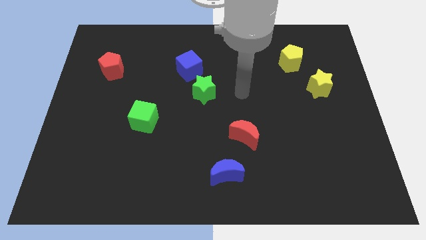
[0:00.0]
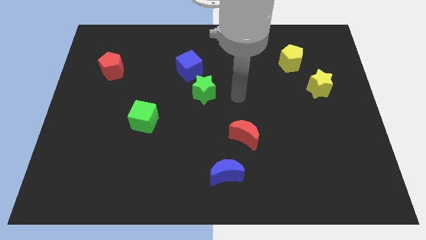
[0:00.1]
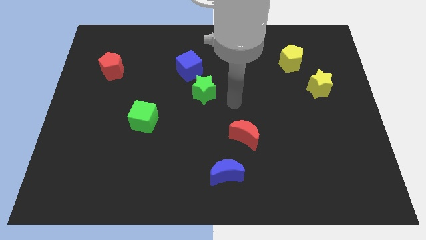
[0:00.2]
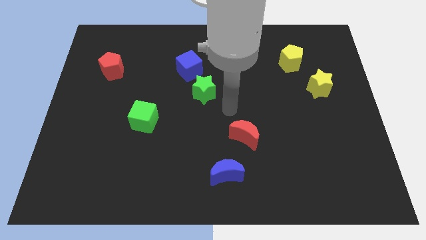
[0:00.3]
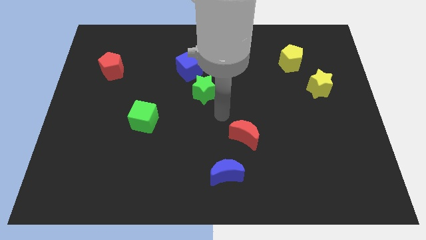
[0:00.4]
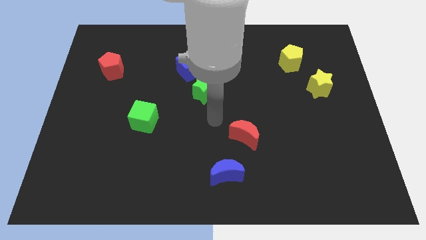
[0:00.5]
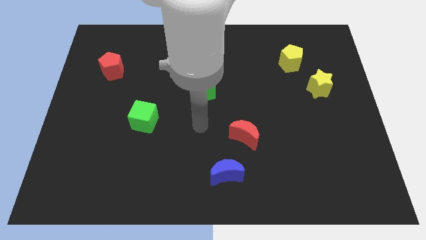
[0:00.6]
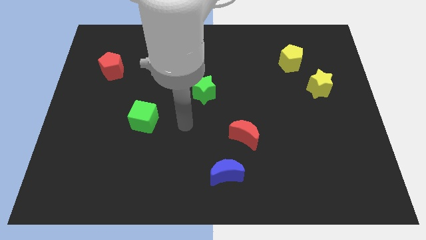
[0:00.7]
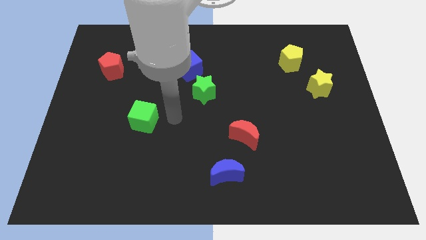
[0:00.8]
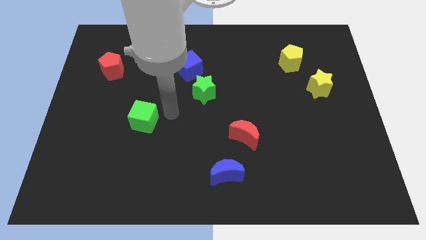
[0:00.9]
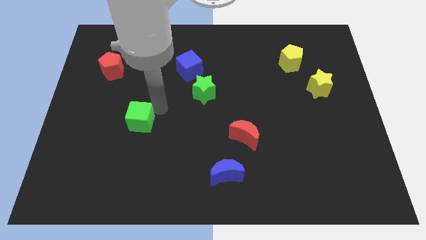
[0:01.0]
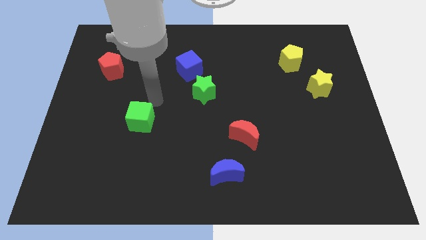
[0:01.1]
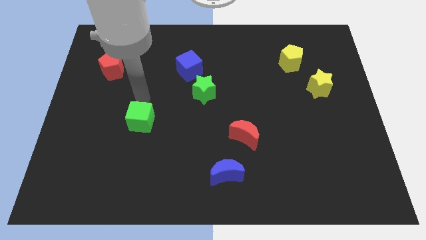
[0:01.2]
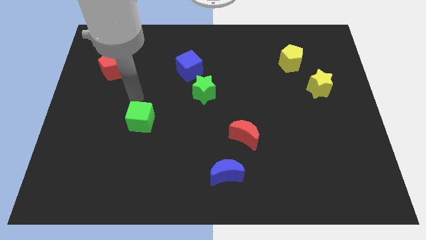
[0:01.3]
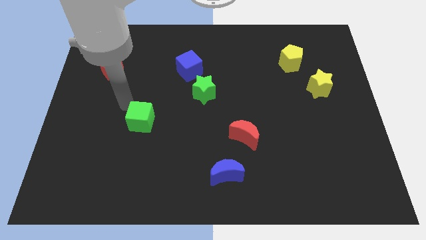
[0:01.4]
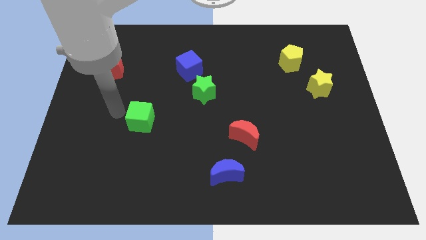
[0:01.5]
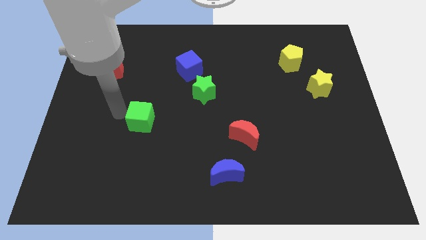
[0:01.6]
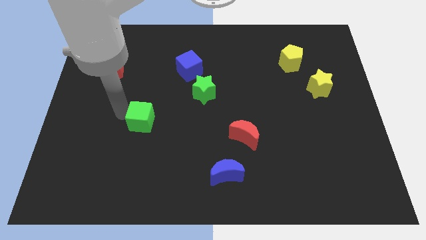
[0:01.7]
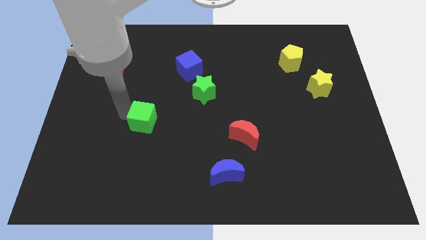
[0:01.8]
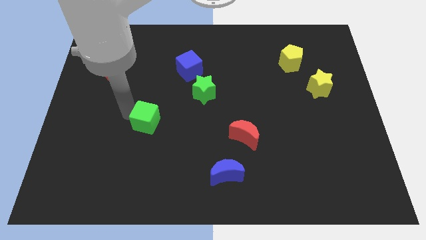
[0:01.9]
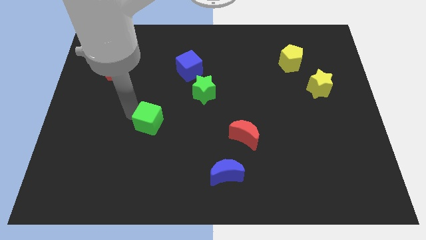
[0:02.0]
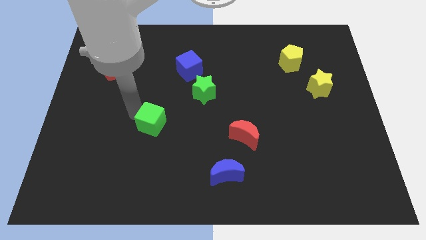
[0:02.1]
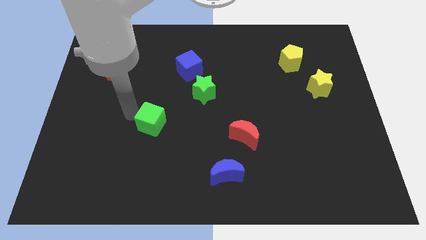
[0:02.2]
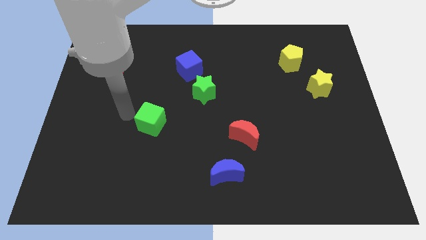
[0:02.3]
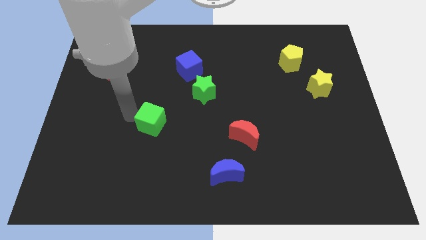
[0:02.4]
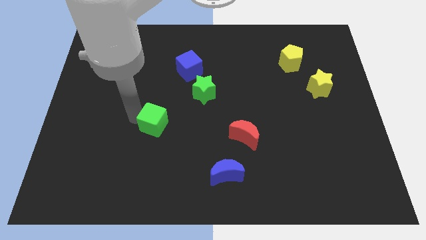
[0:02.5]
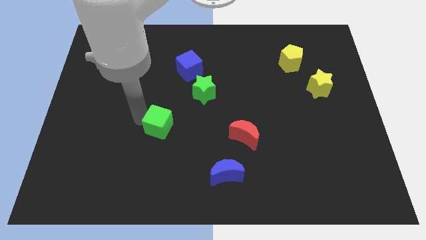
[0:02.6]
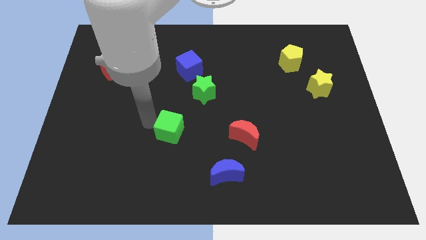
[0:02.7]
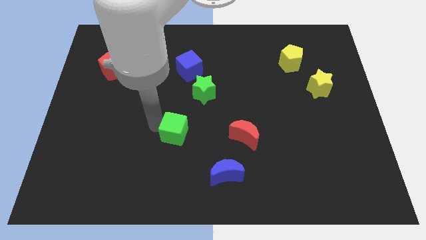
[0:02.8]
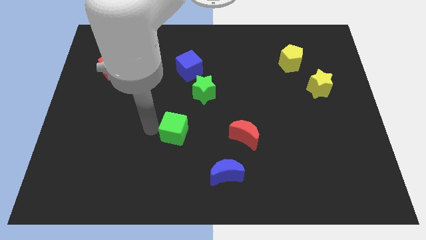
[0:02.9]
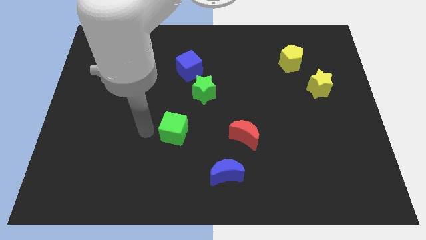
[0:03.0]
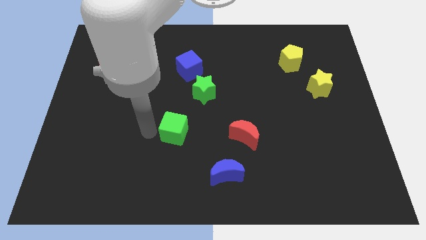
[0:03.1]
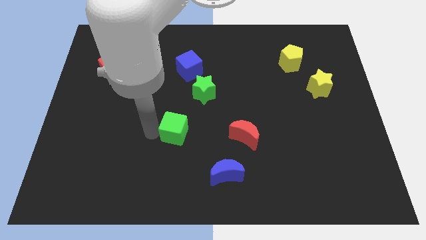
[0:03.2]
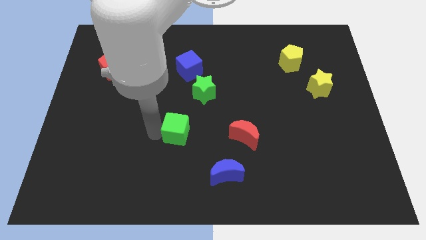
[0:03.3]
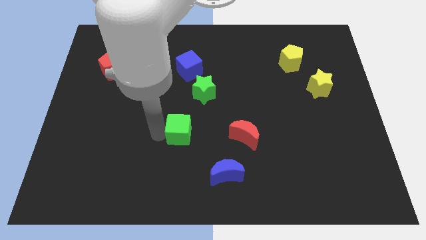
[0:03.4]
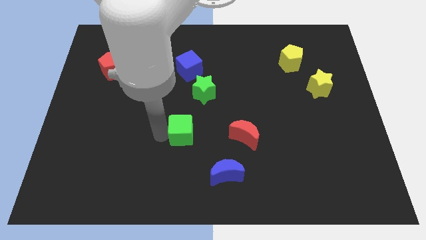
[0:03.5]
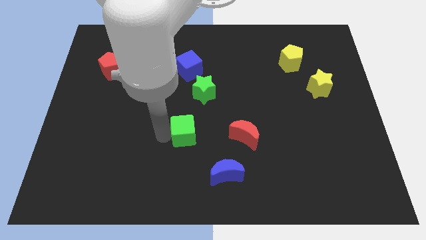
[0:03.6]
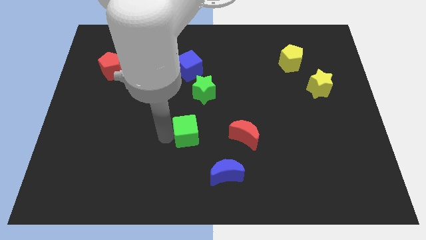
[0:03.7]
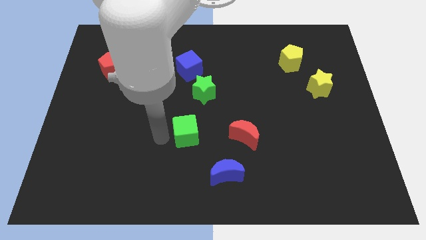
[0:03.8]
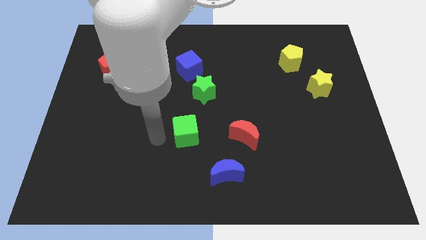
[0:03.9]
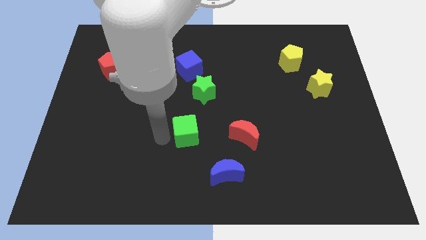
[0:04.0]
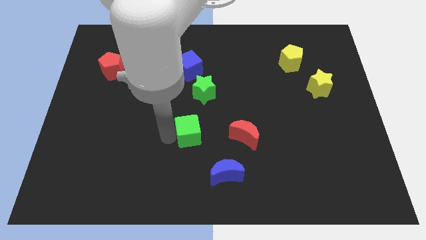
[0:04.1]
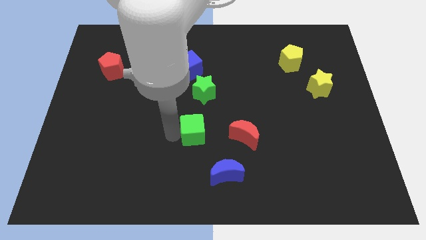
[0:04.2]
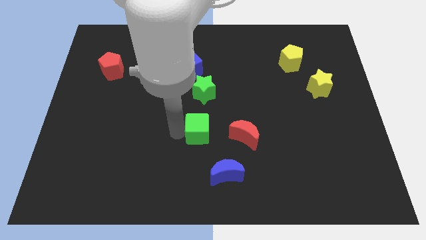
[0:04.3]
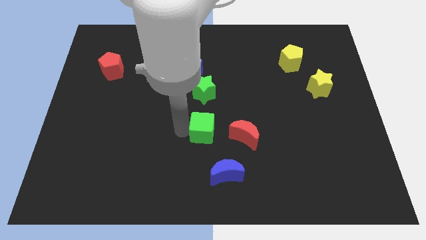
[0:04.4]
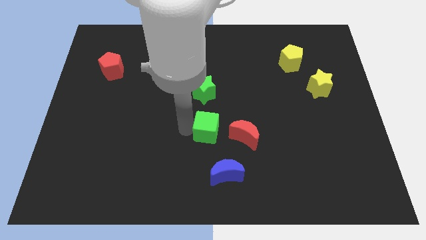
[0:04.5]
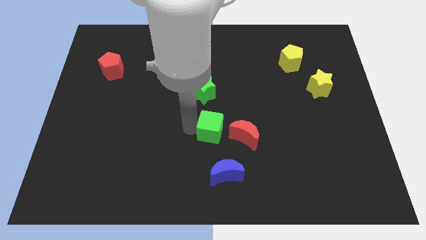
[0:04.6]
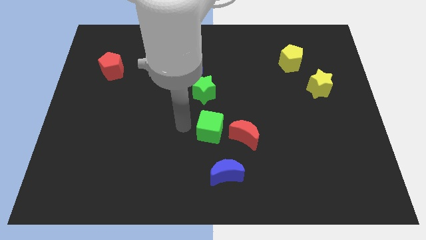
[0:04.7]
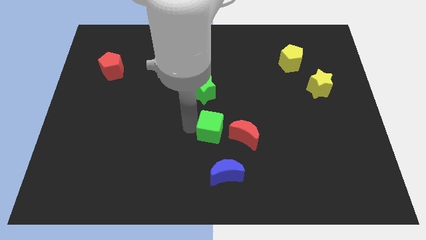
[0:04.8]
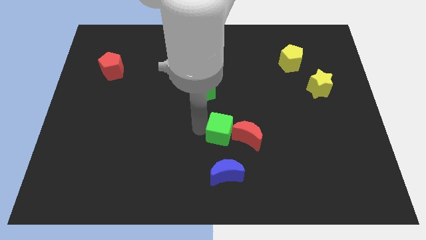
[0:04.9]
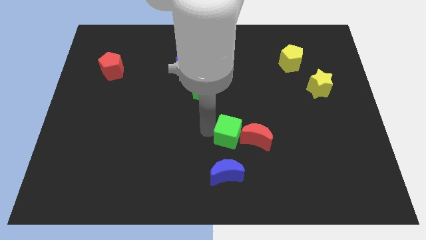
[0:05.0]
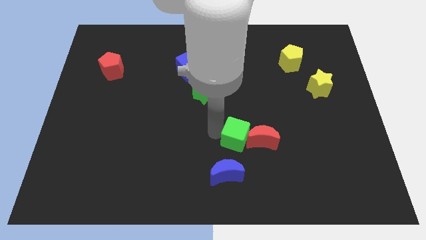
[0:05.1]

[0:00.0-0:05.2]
slide the green cube towards the red moon
